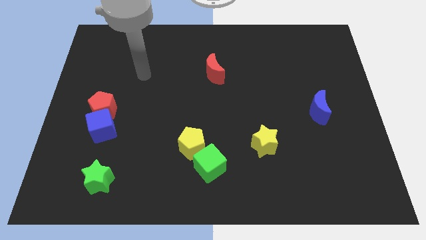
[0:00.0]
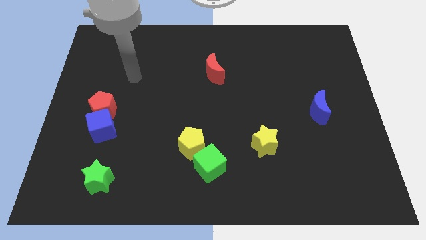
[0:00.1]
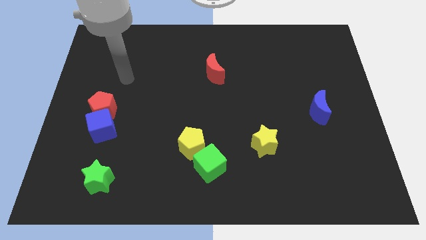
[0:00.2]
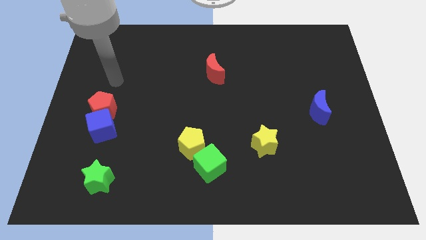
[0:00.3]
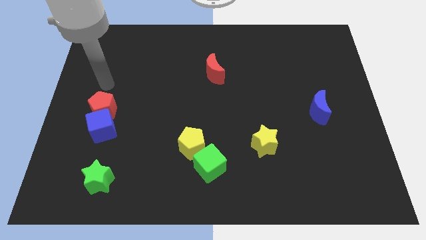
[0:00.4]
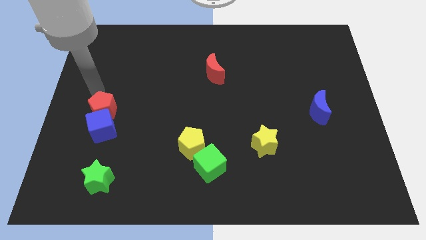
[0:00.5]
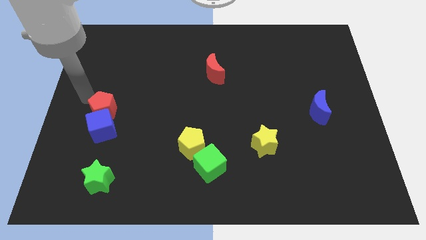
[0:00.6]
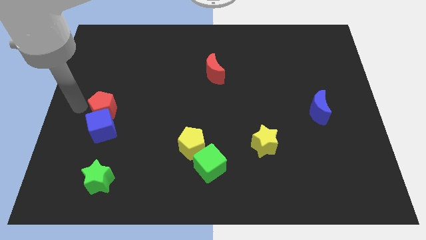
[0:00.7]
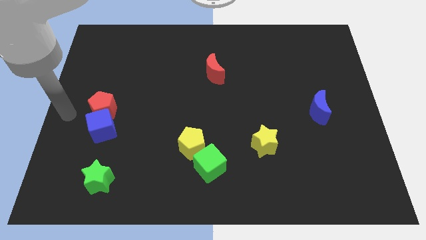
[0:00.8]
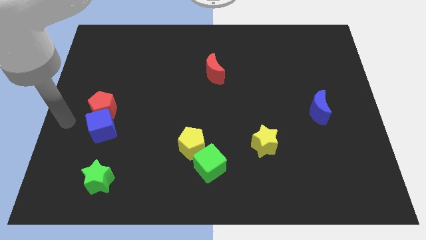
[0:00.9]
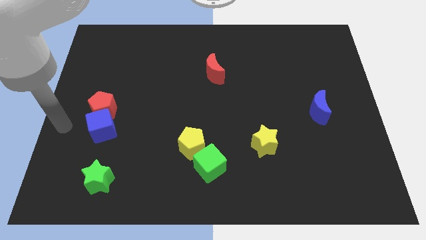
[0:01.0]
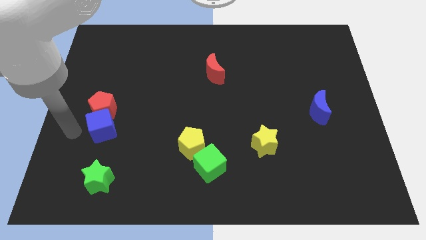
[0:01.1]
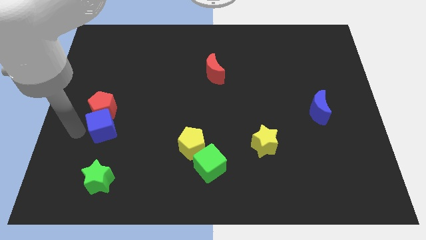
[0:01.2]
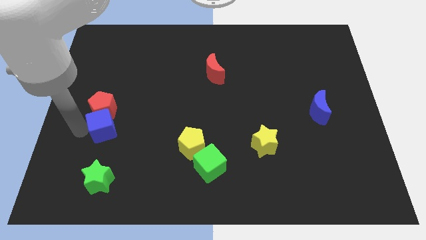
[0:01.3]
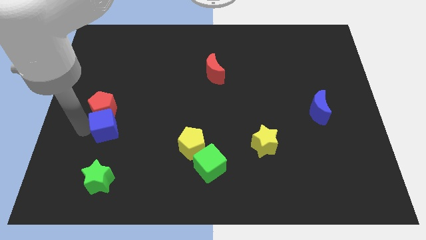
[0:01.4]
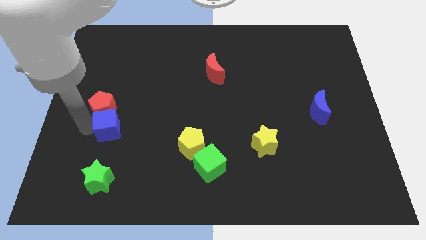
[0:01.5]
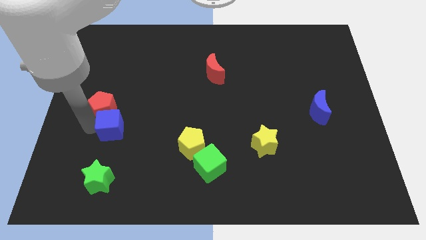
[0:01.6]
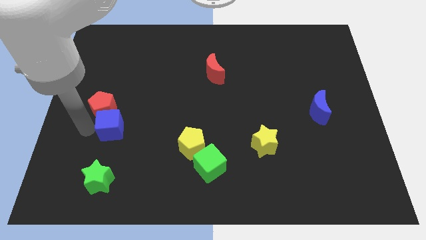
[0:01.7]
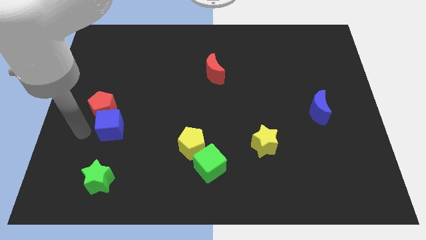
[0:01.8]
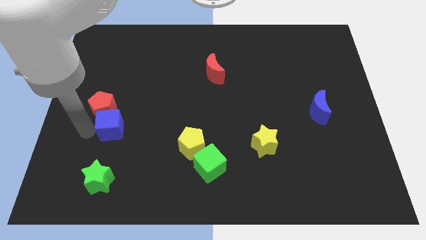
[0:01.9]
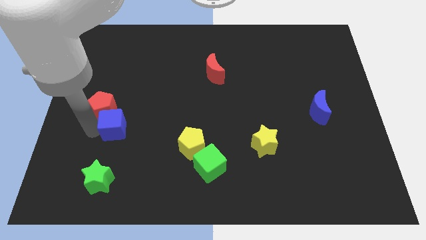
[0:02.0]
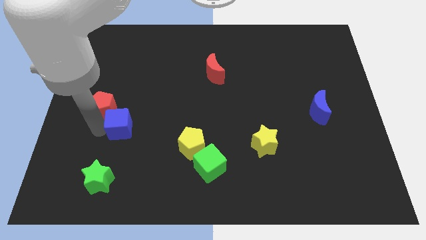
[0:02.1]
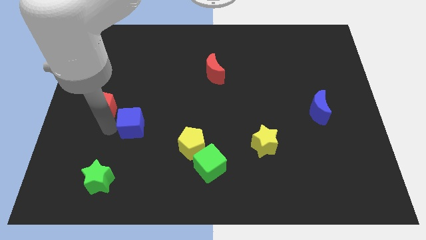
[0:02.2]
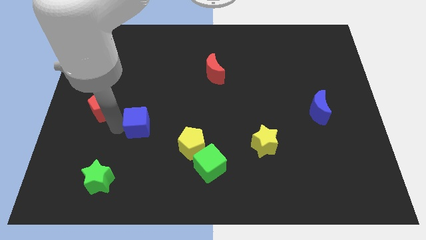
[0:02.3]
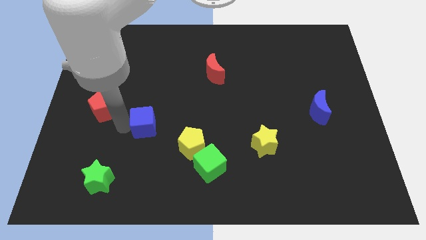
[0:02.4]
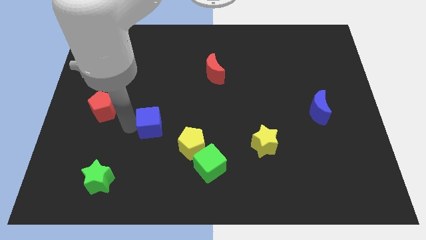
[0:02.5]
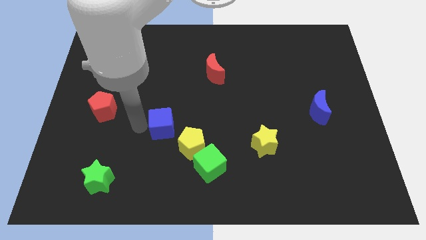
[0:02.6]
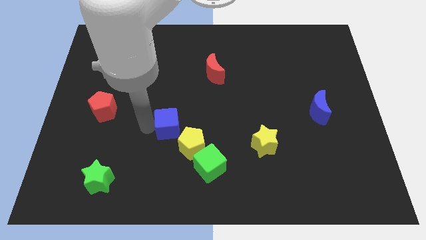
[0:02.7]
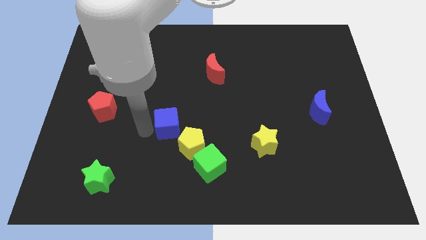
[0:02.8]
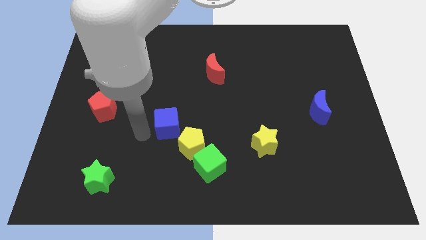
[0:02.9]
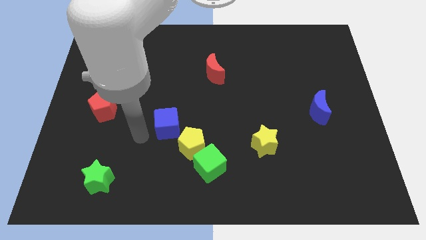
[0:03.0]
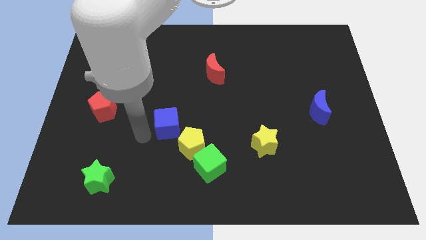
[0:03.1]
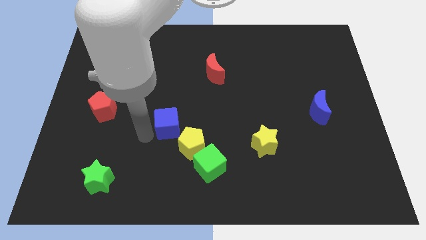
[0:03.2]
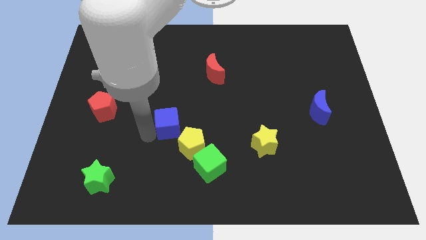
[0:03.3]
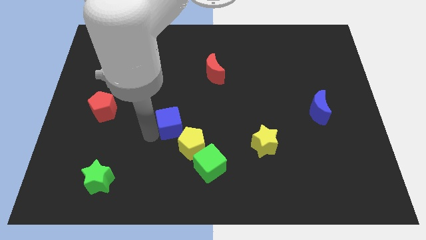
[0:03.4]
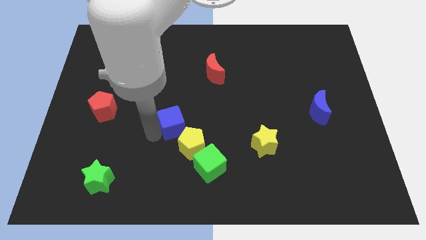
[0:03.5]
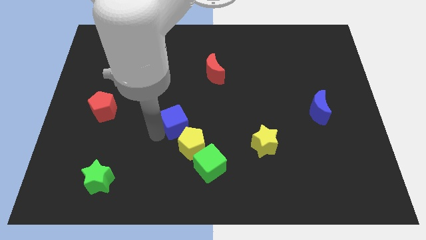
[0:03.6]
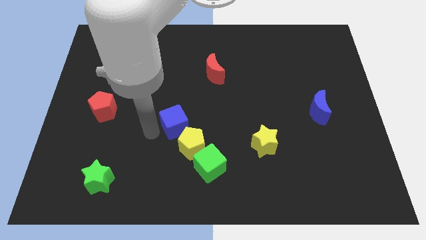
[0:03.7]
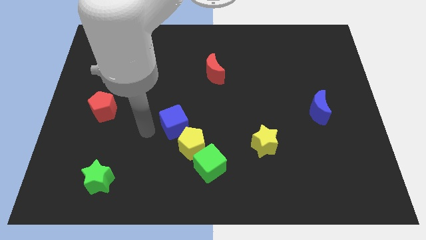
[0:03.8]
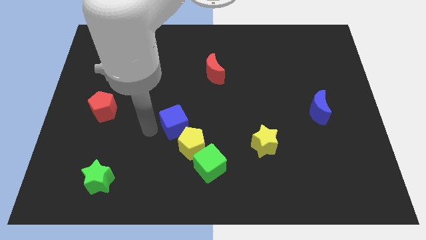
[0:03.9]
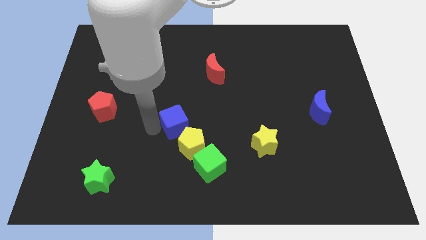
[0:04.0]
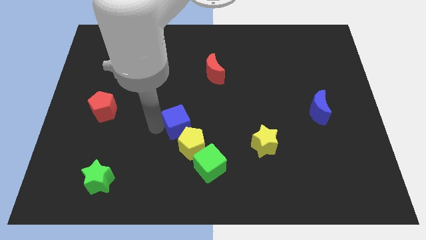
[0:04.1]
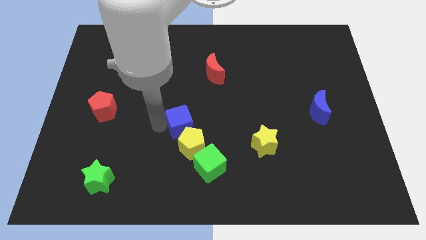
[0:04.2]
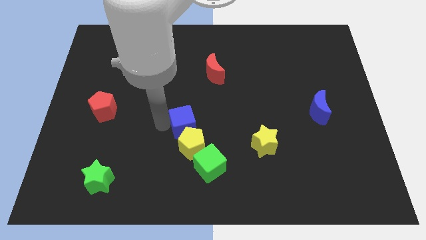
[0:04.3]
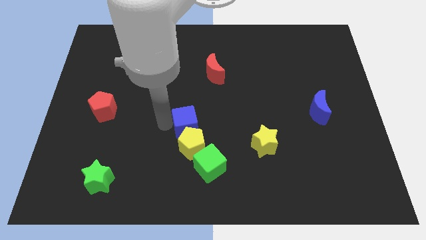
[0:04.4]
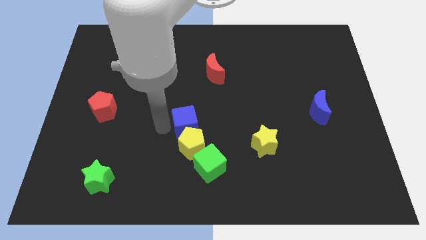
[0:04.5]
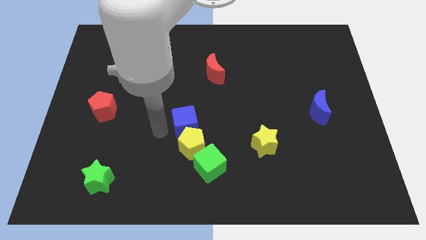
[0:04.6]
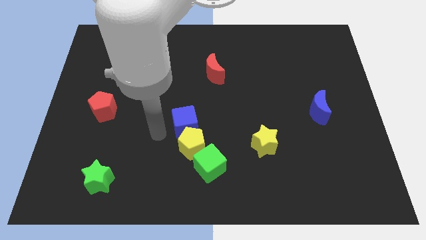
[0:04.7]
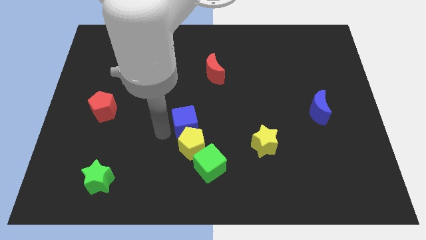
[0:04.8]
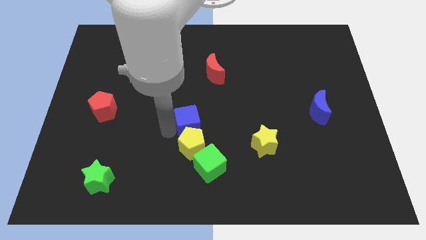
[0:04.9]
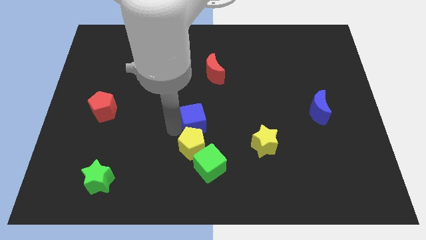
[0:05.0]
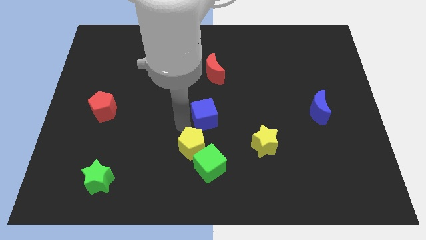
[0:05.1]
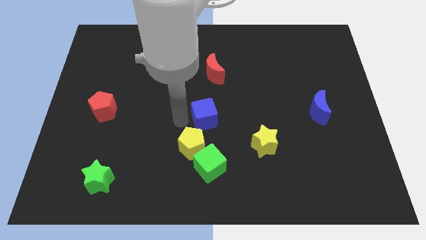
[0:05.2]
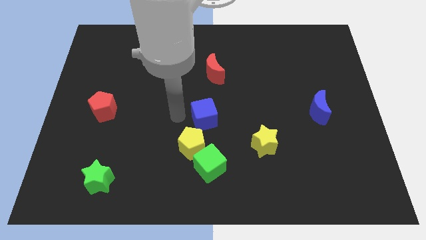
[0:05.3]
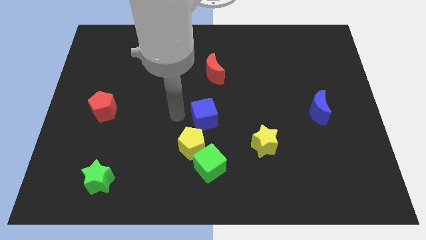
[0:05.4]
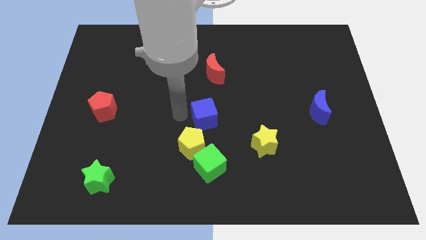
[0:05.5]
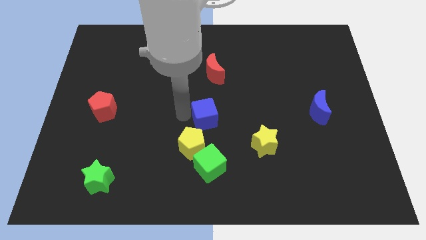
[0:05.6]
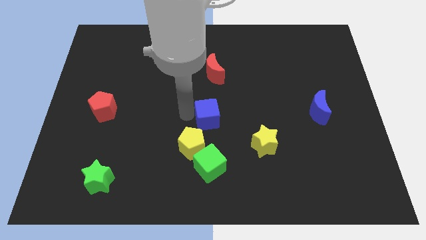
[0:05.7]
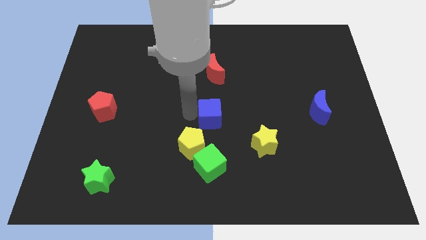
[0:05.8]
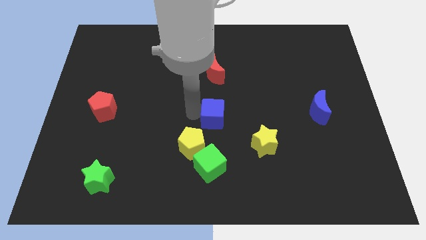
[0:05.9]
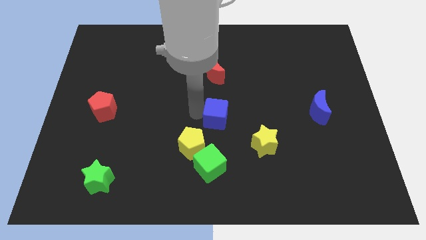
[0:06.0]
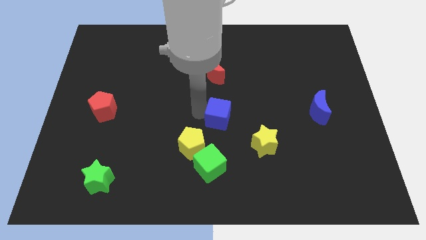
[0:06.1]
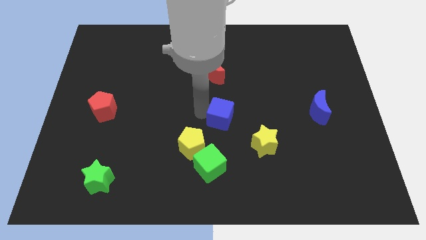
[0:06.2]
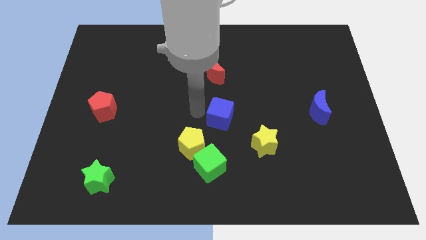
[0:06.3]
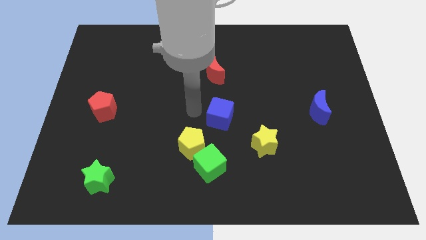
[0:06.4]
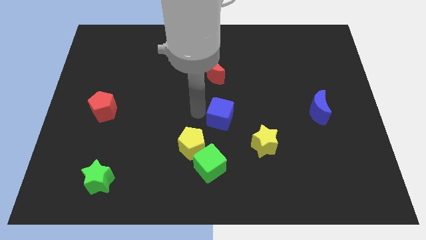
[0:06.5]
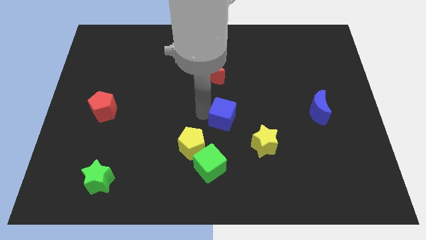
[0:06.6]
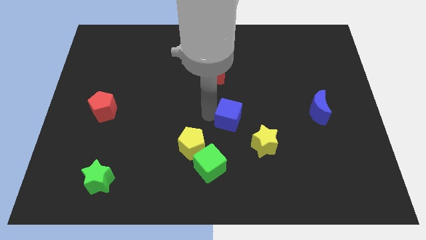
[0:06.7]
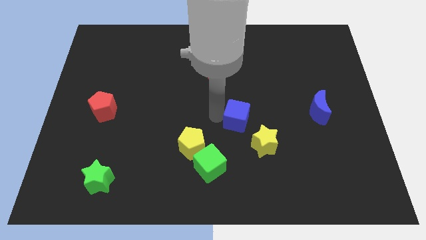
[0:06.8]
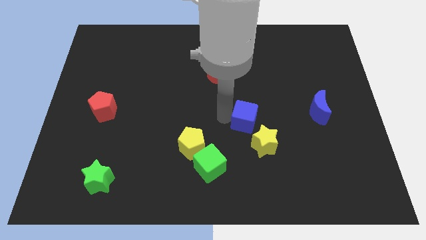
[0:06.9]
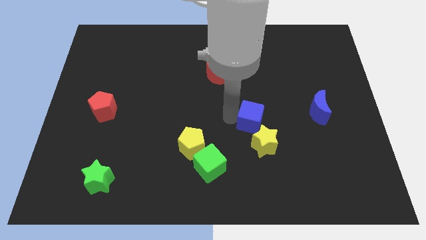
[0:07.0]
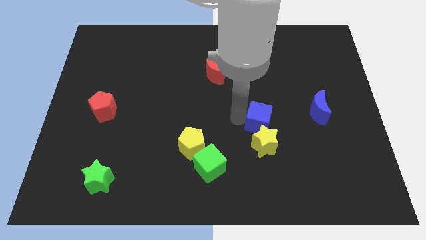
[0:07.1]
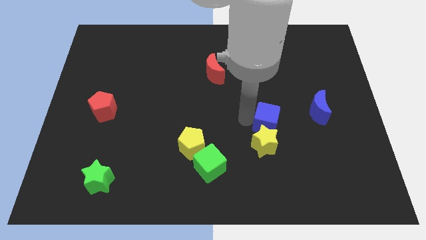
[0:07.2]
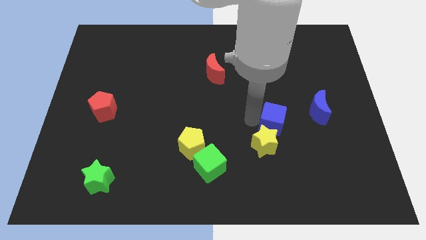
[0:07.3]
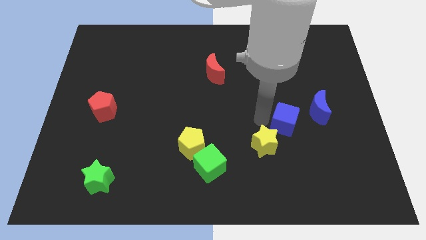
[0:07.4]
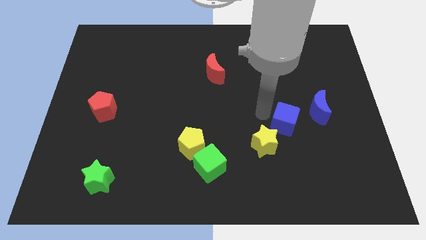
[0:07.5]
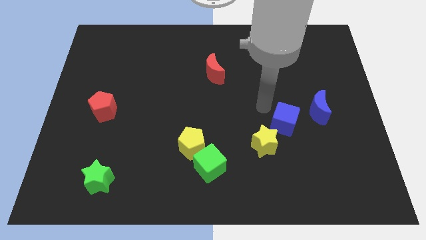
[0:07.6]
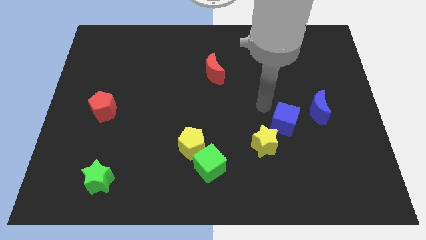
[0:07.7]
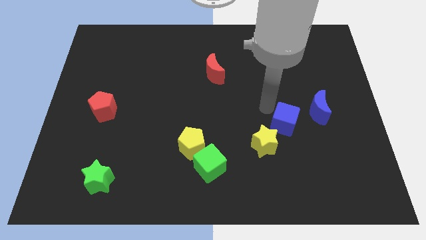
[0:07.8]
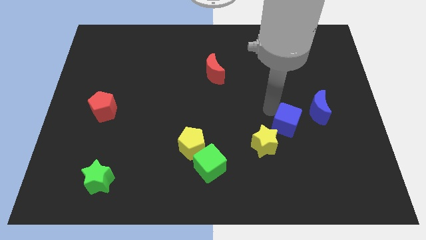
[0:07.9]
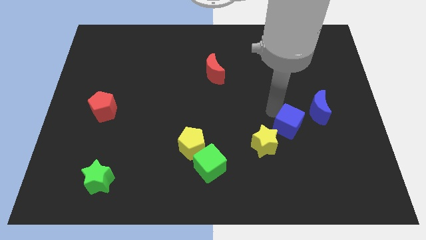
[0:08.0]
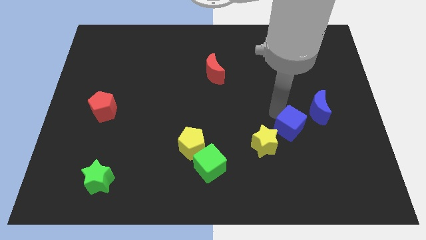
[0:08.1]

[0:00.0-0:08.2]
slide the blue cube just right of the yellow star
